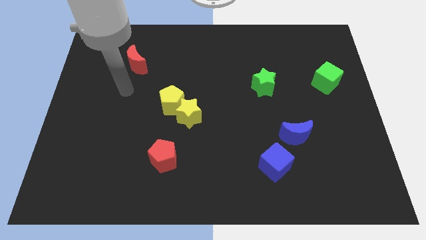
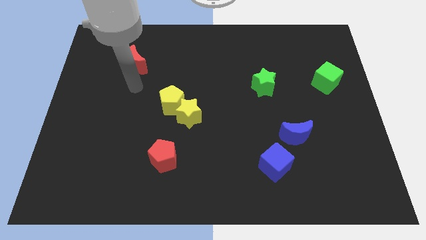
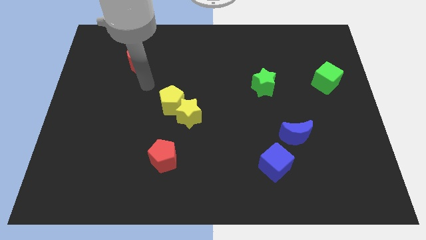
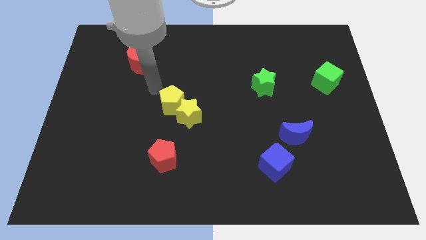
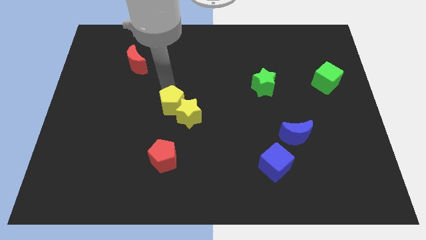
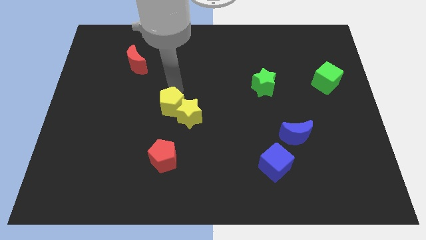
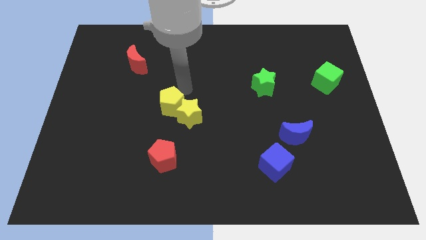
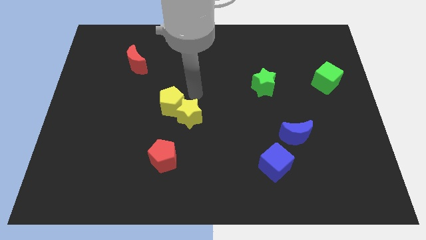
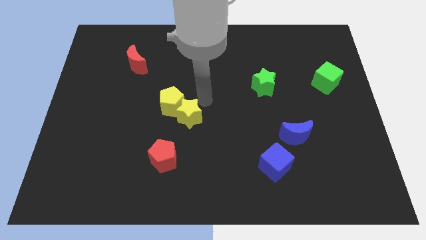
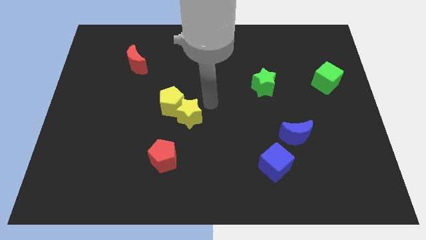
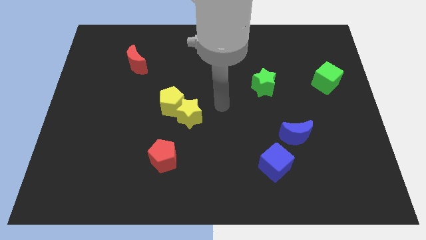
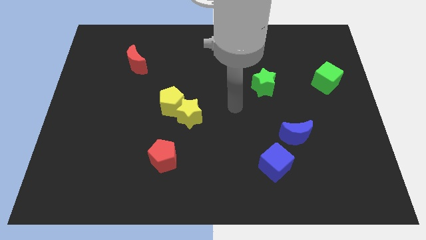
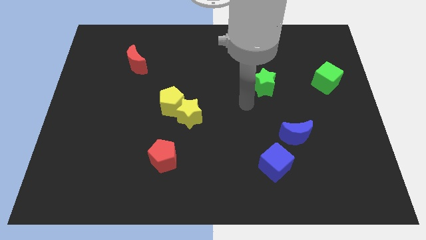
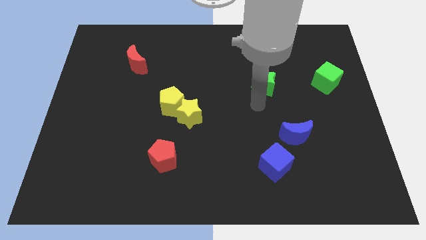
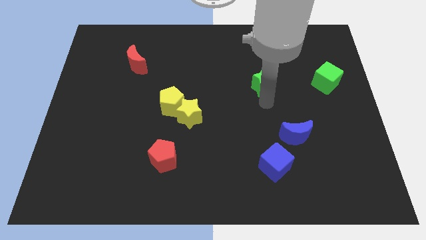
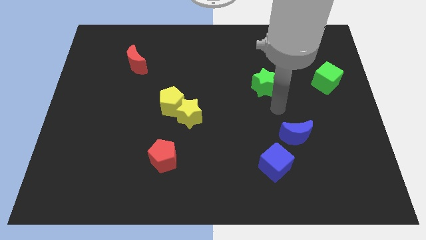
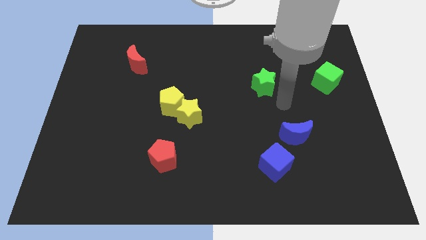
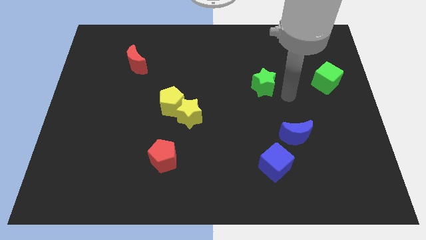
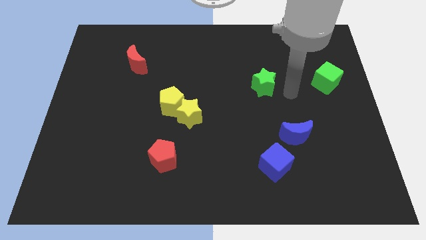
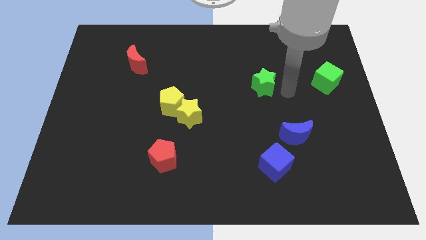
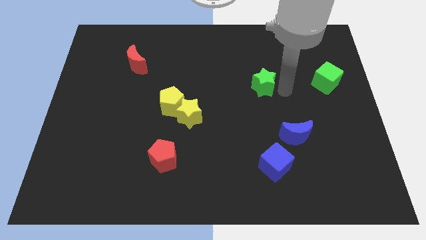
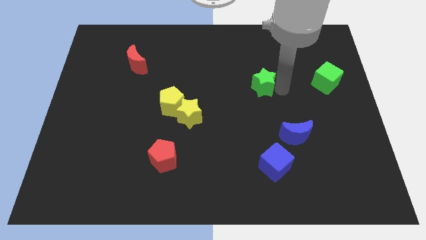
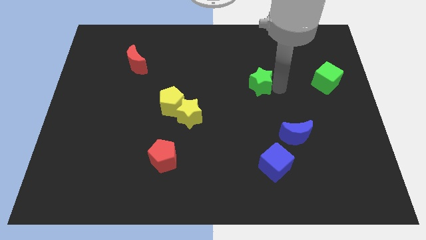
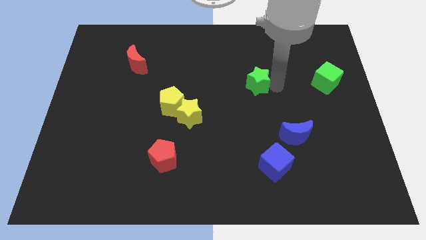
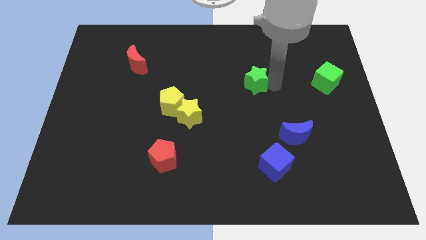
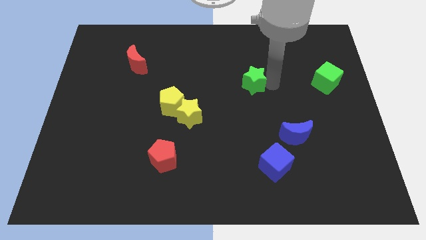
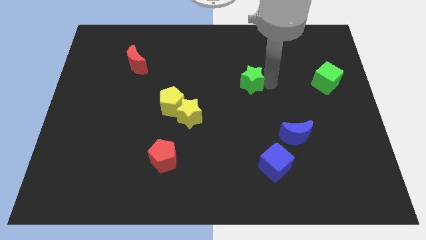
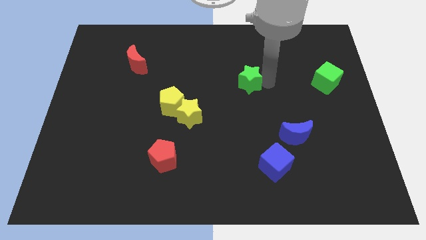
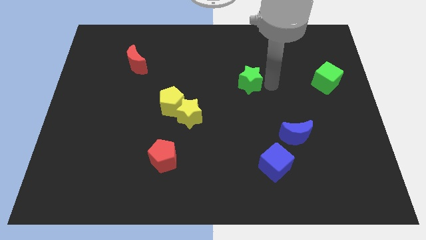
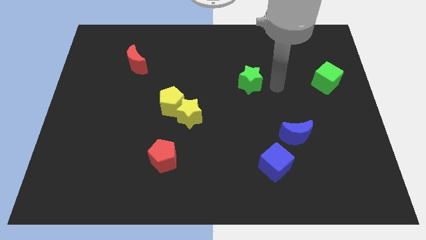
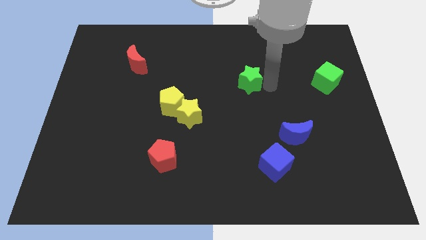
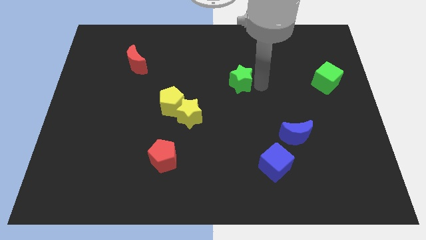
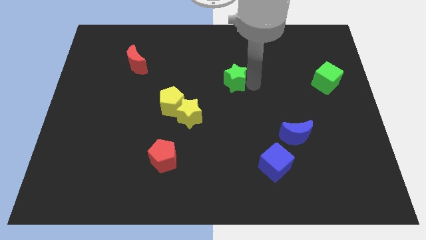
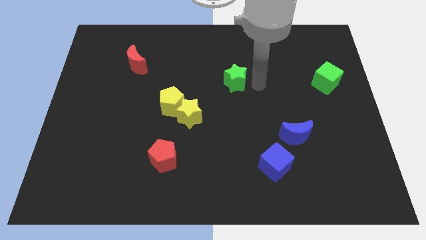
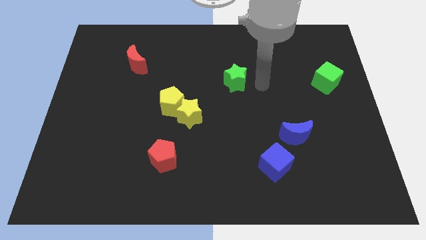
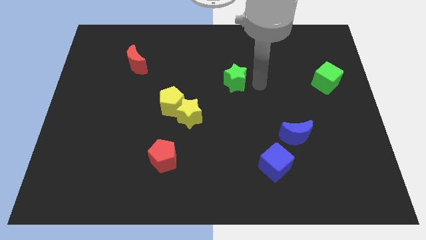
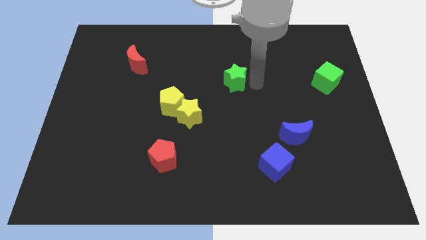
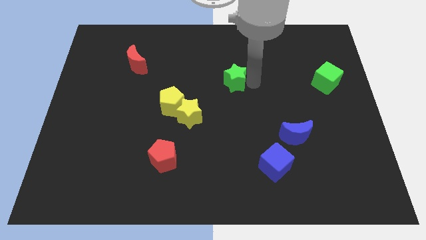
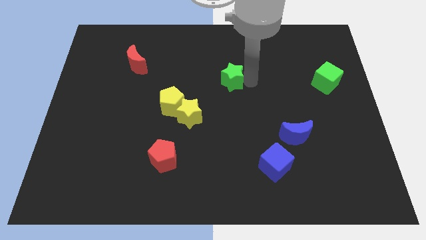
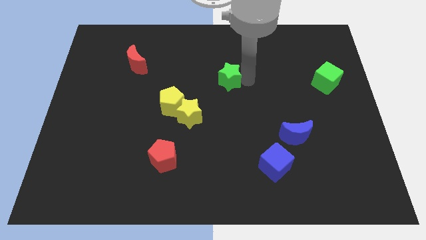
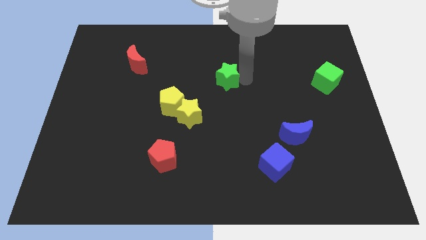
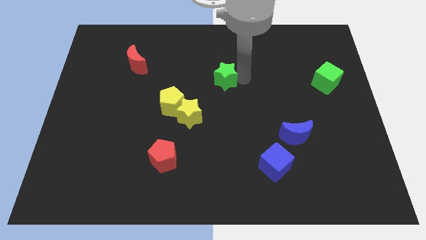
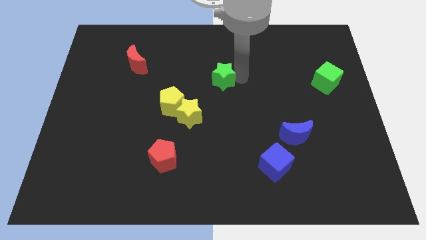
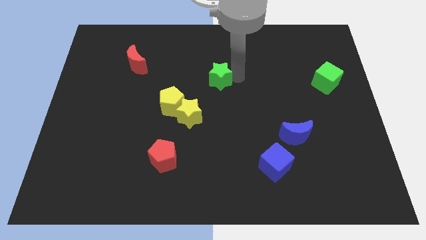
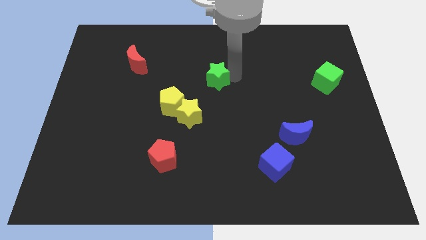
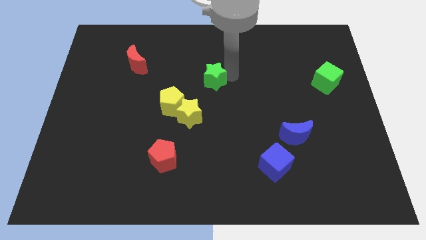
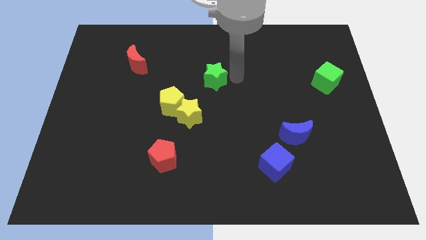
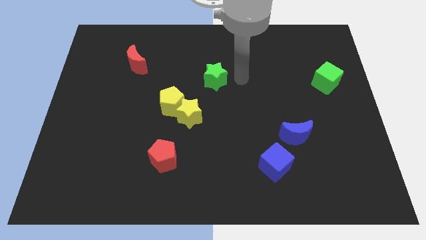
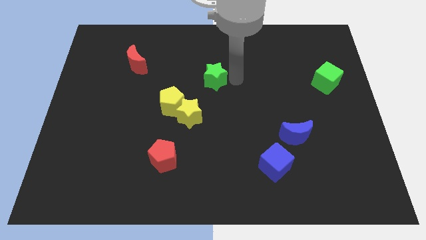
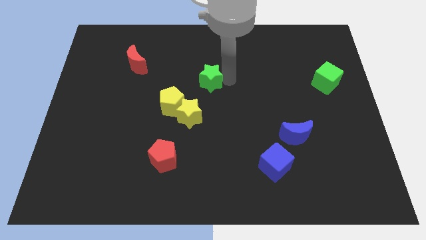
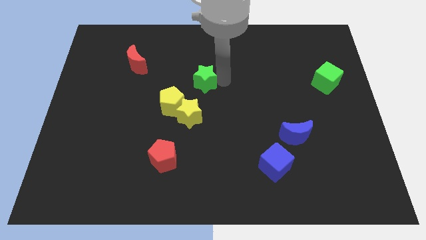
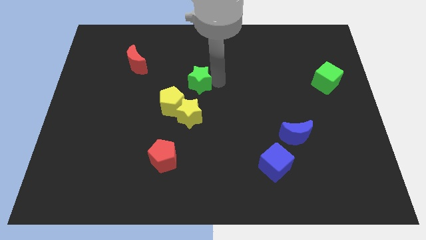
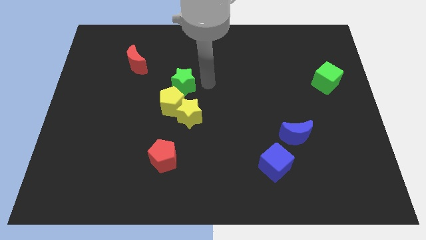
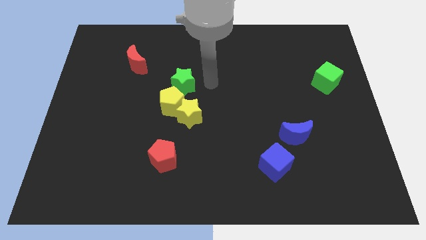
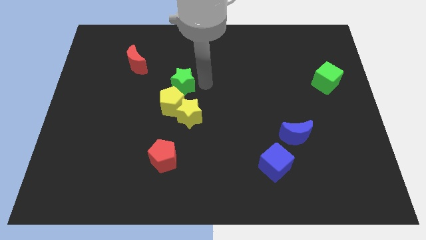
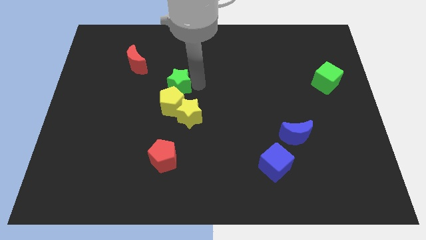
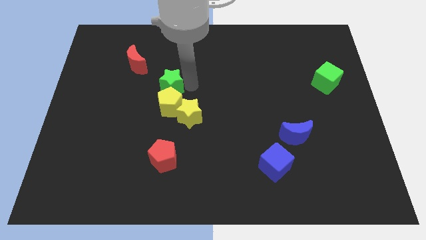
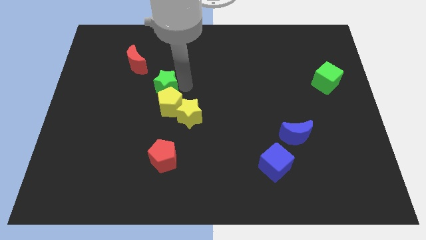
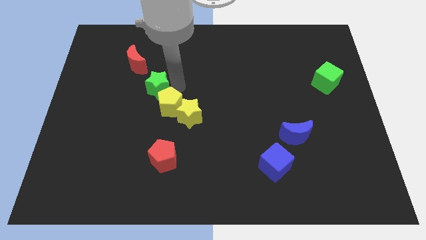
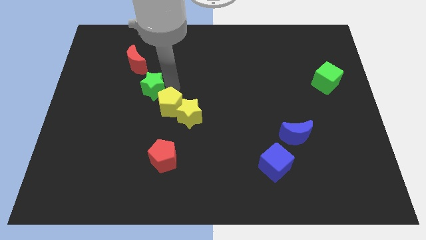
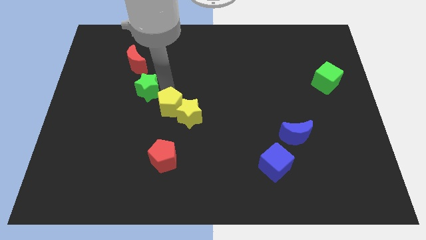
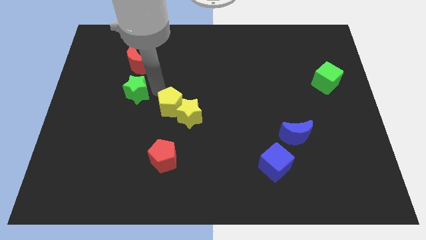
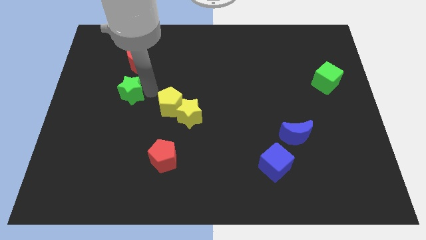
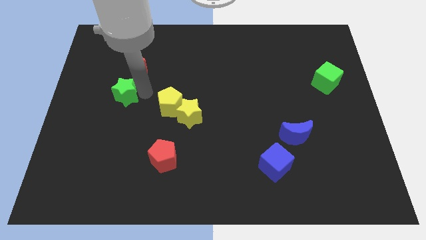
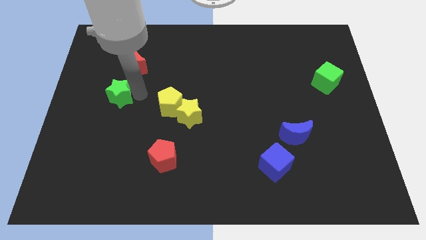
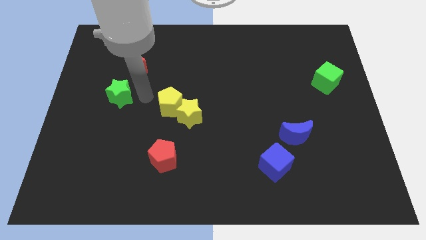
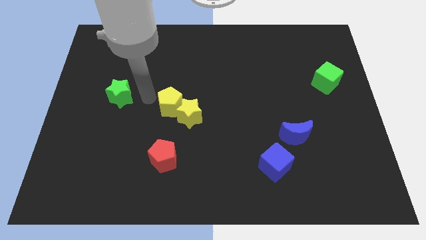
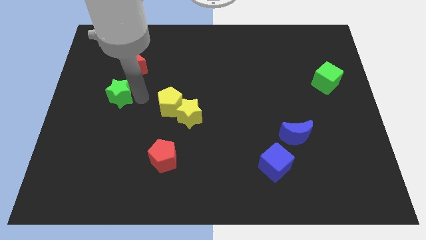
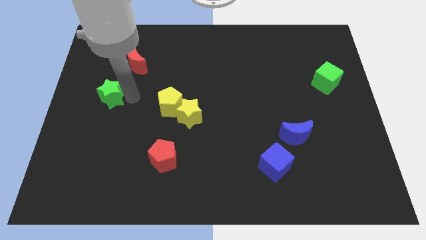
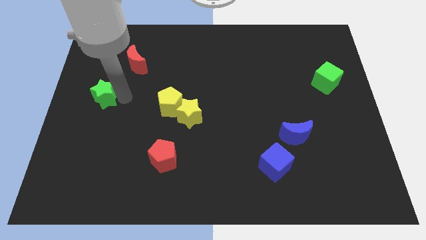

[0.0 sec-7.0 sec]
put the green star to the left side

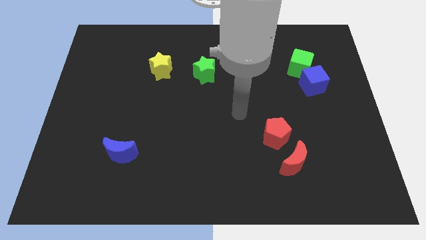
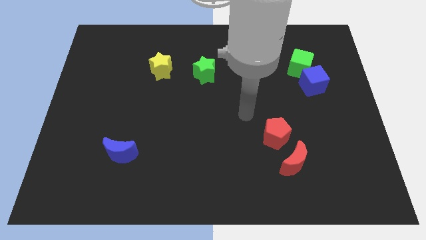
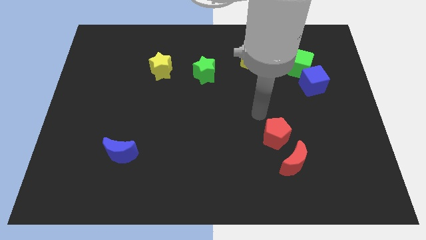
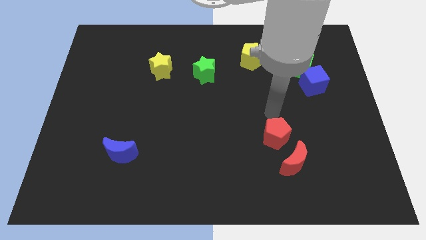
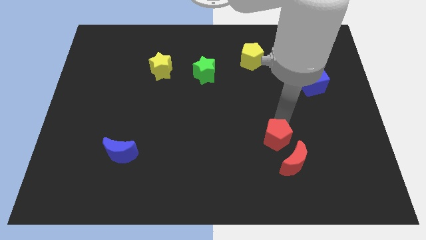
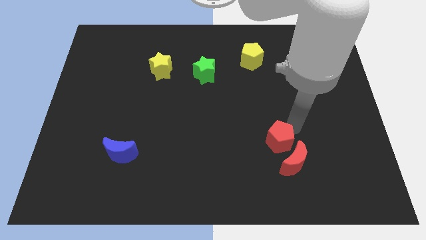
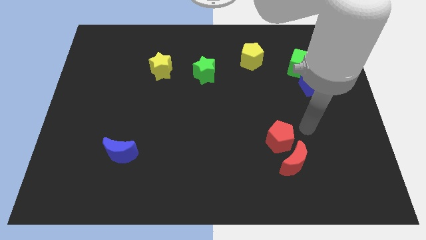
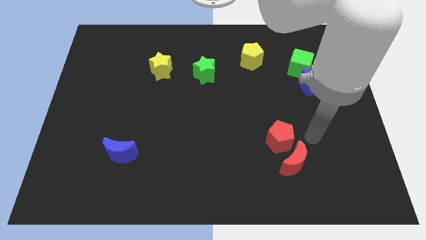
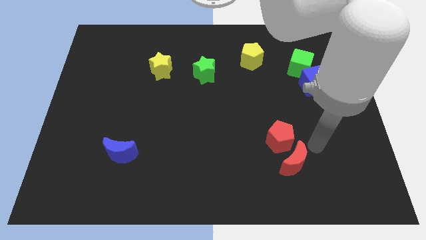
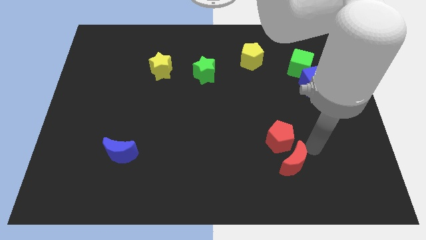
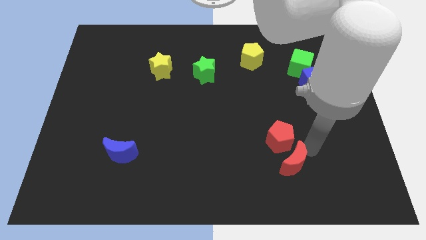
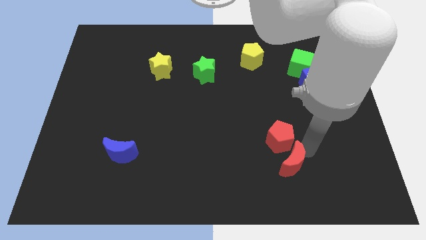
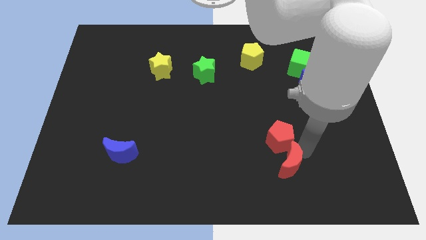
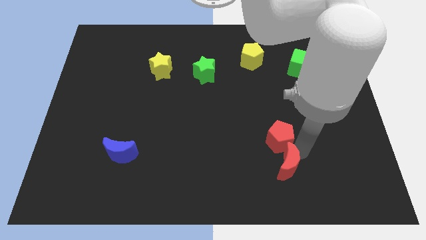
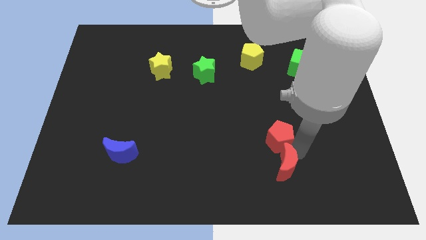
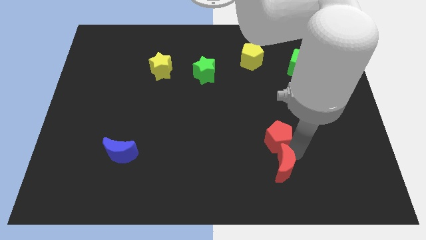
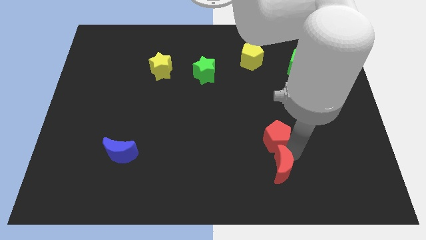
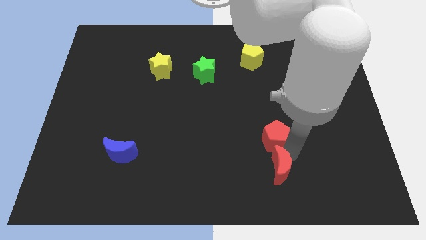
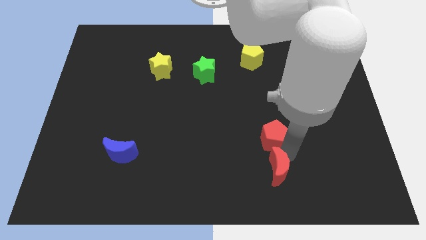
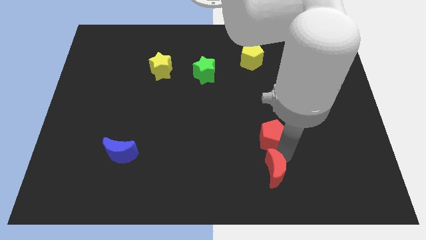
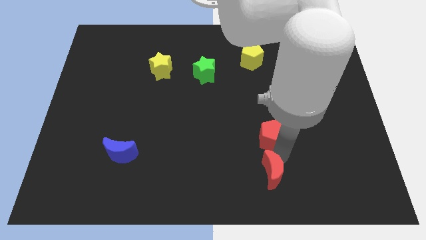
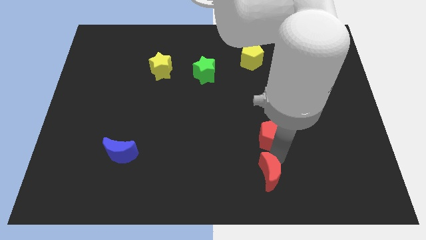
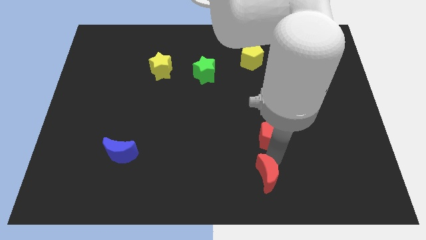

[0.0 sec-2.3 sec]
slide the red moon to the bottom side
